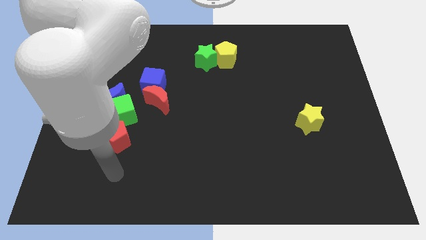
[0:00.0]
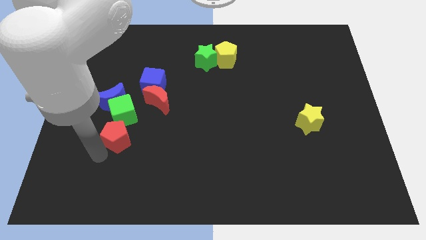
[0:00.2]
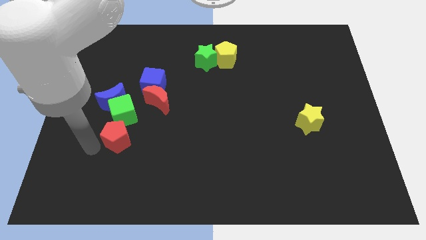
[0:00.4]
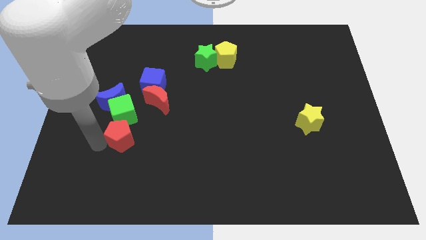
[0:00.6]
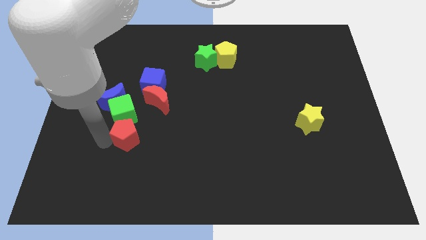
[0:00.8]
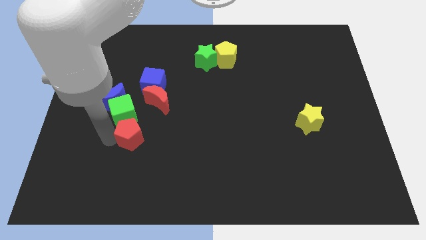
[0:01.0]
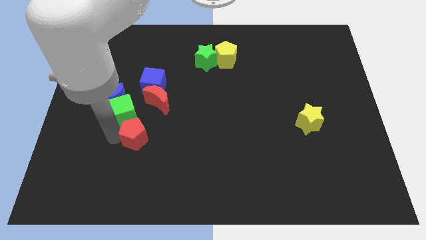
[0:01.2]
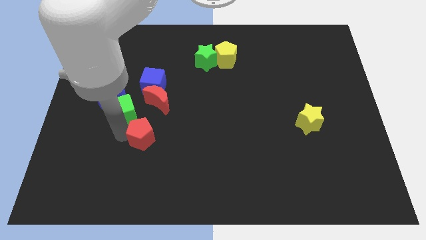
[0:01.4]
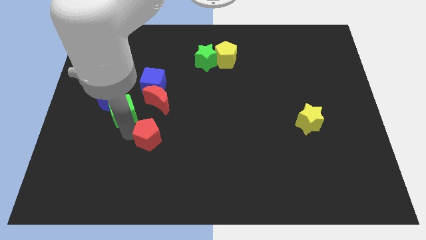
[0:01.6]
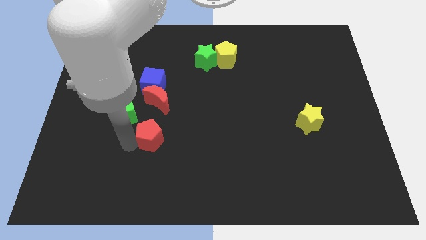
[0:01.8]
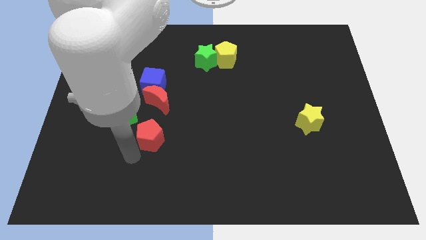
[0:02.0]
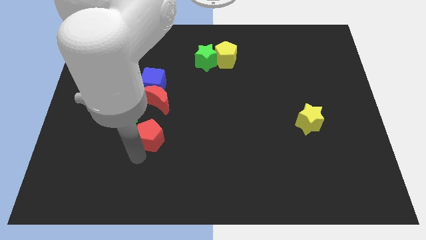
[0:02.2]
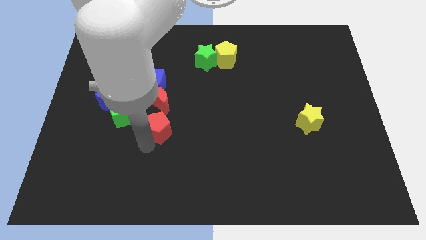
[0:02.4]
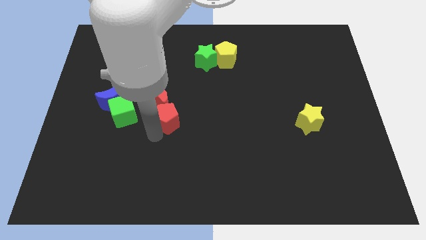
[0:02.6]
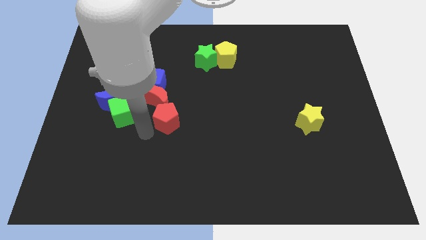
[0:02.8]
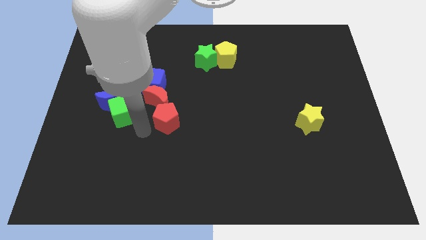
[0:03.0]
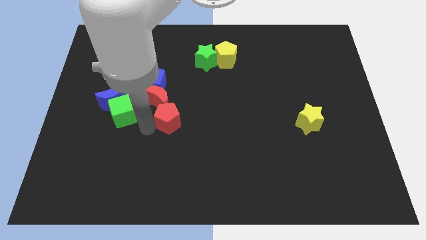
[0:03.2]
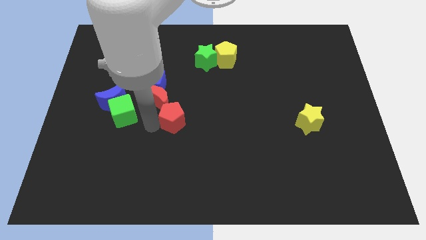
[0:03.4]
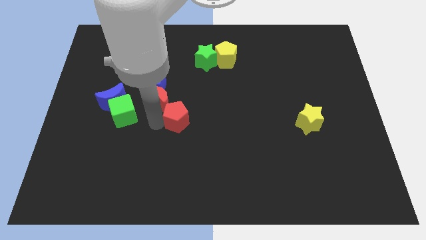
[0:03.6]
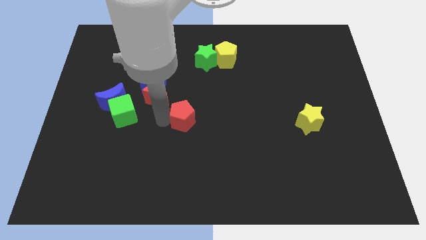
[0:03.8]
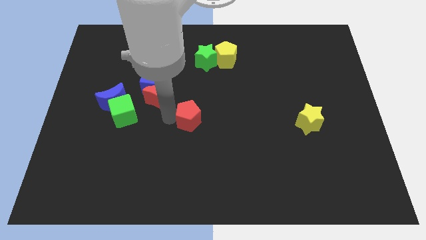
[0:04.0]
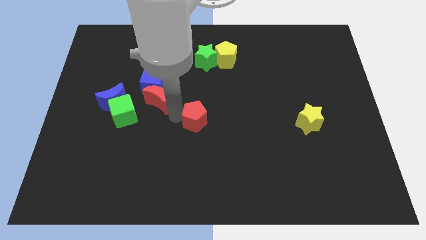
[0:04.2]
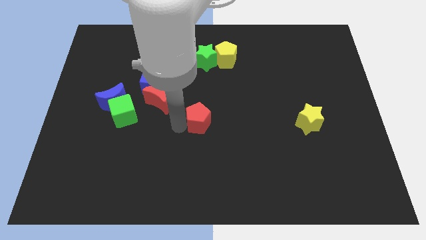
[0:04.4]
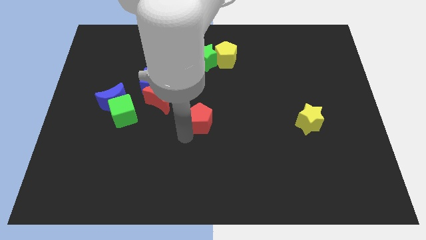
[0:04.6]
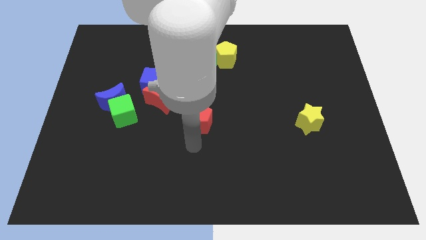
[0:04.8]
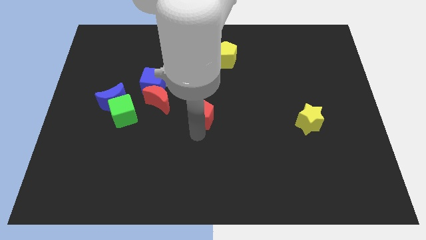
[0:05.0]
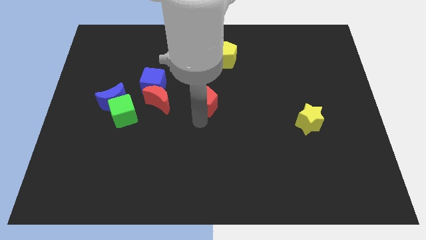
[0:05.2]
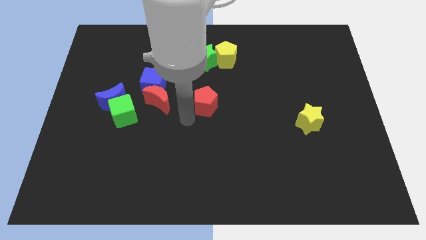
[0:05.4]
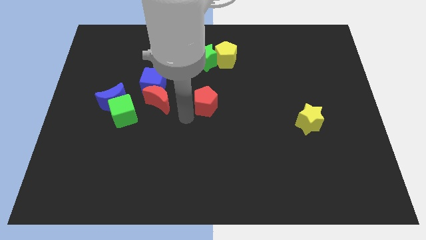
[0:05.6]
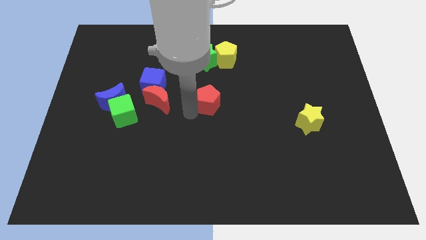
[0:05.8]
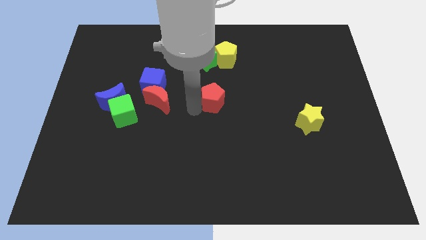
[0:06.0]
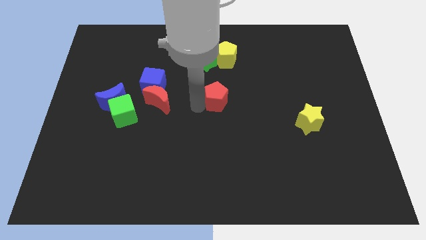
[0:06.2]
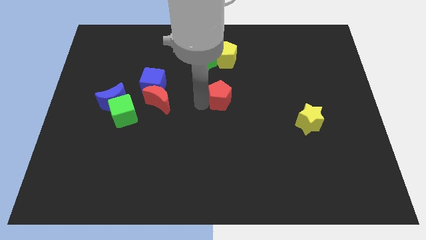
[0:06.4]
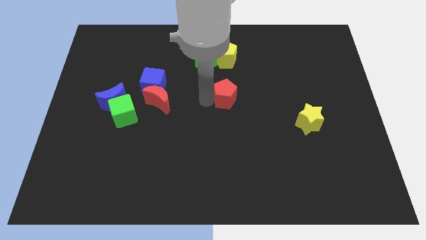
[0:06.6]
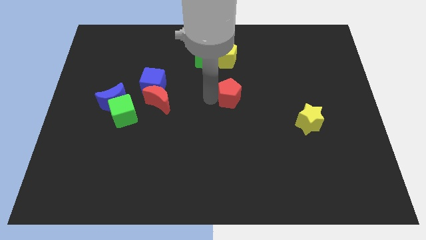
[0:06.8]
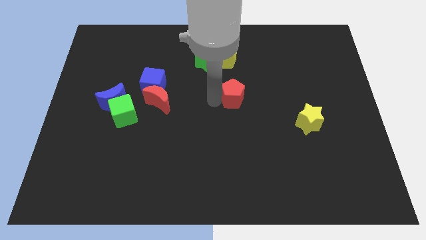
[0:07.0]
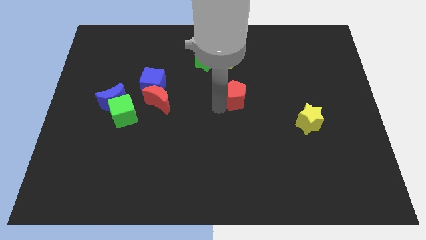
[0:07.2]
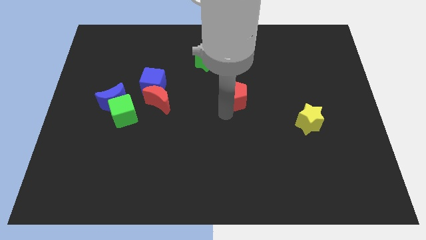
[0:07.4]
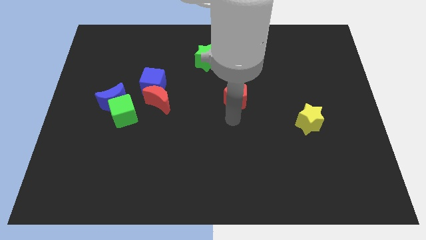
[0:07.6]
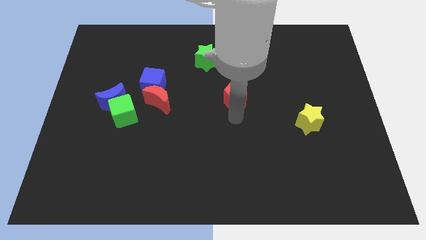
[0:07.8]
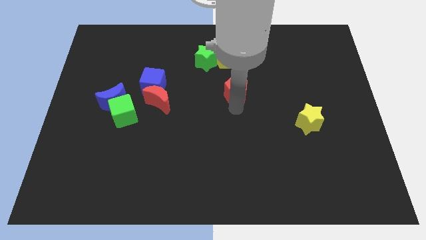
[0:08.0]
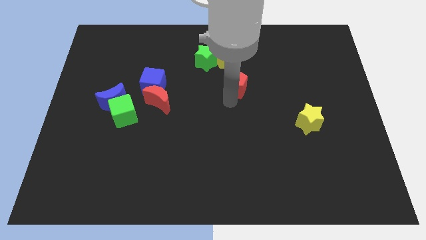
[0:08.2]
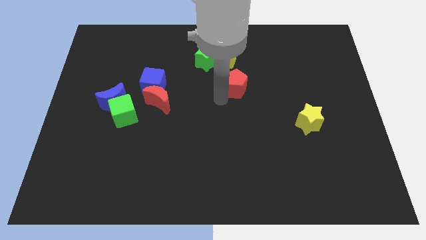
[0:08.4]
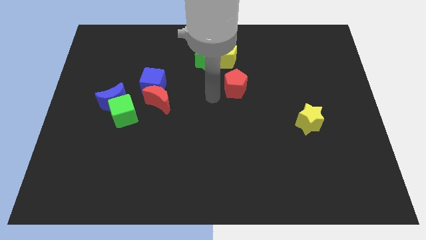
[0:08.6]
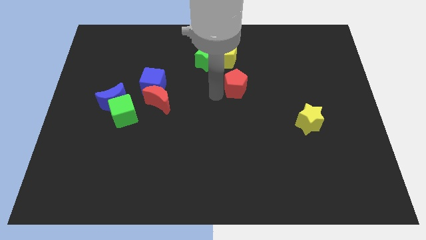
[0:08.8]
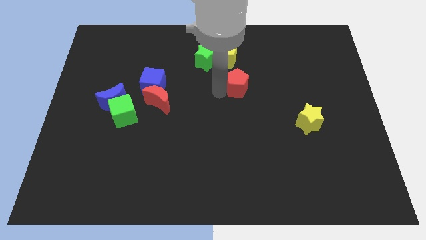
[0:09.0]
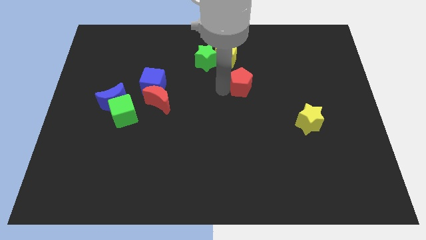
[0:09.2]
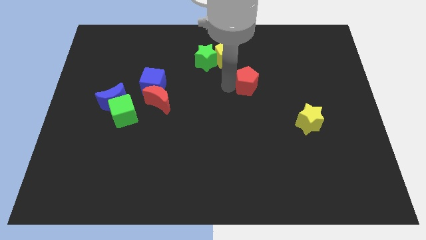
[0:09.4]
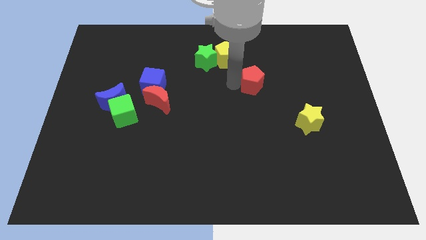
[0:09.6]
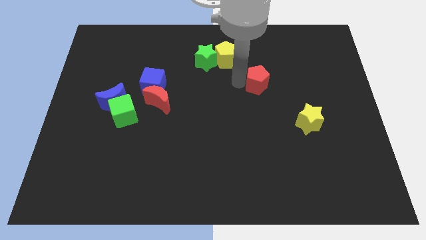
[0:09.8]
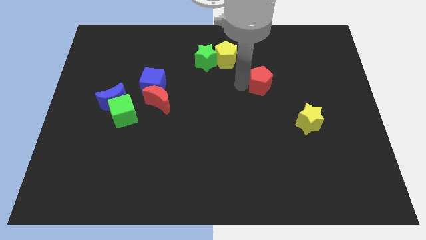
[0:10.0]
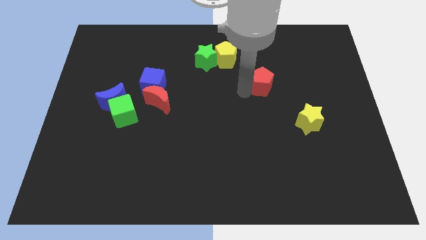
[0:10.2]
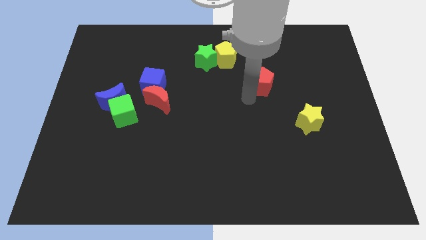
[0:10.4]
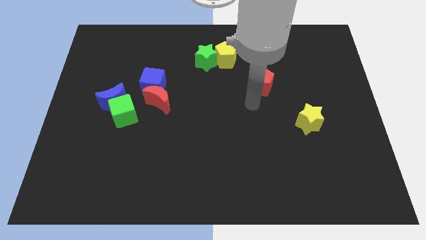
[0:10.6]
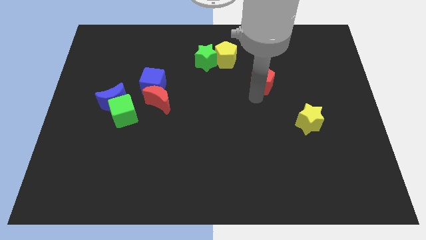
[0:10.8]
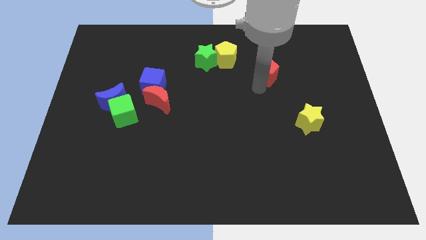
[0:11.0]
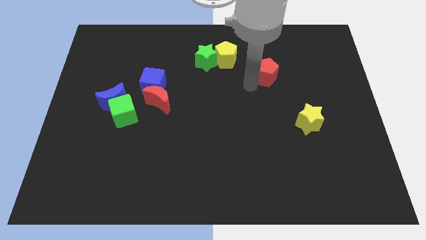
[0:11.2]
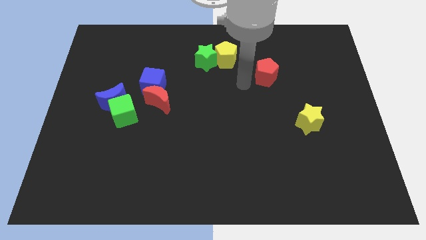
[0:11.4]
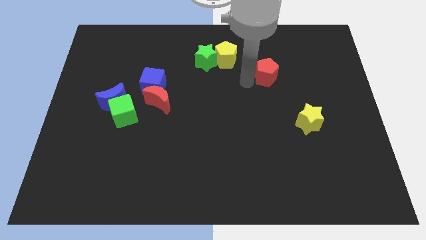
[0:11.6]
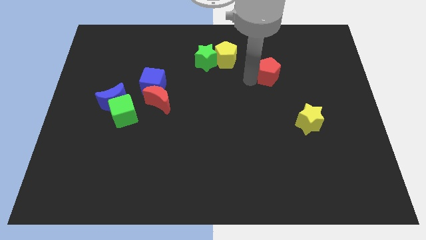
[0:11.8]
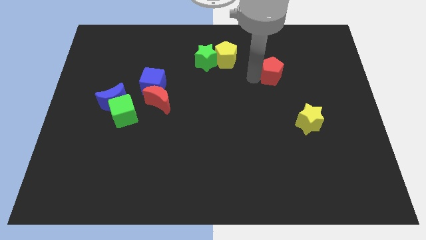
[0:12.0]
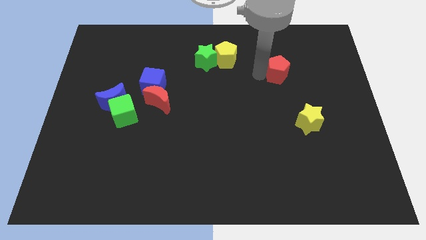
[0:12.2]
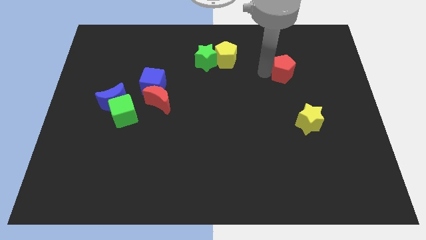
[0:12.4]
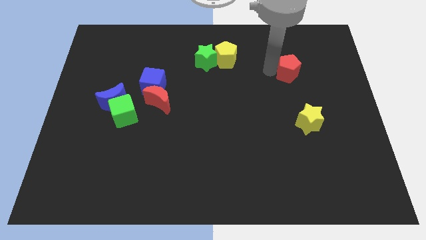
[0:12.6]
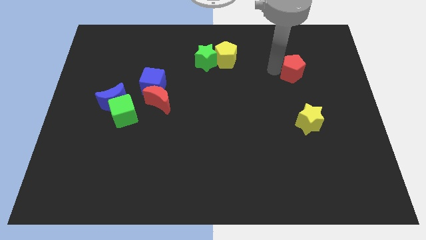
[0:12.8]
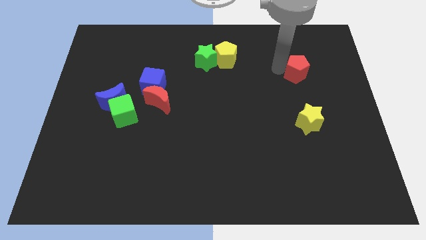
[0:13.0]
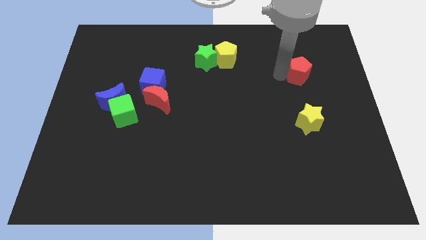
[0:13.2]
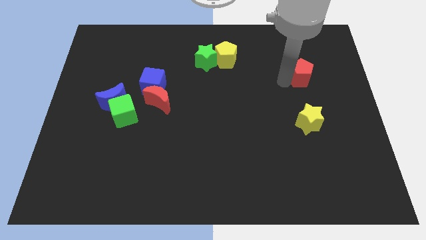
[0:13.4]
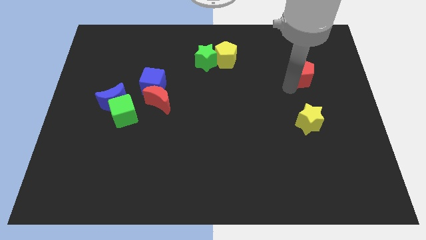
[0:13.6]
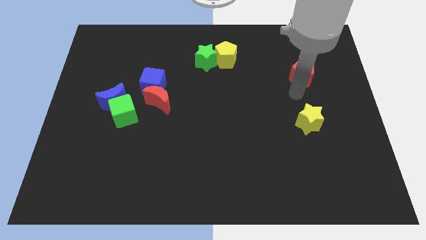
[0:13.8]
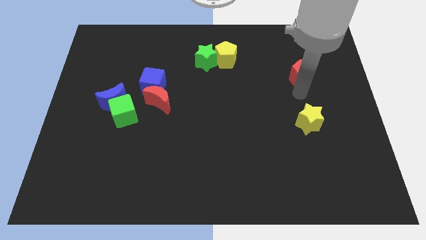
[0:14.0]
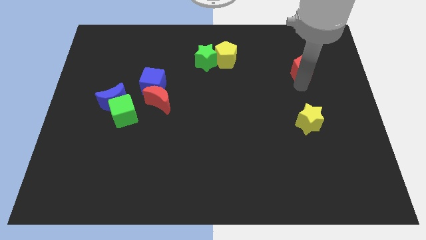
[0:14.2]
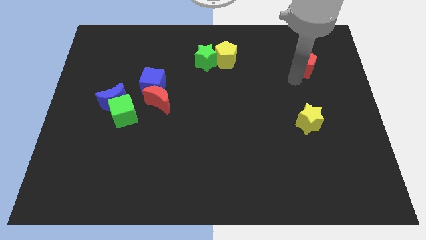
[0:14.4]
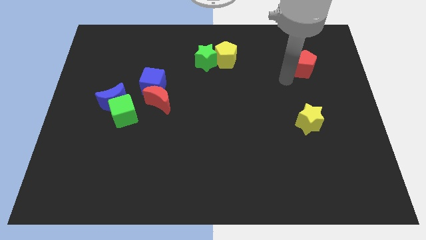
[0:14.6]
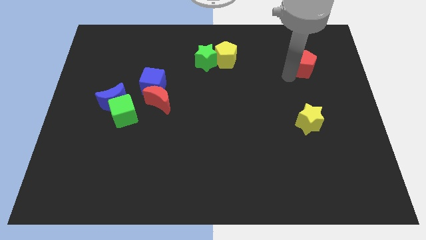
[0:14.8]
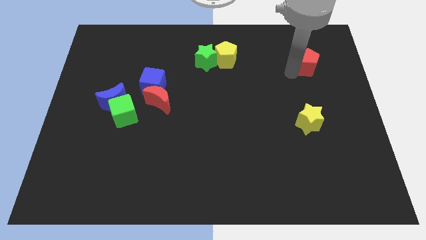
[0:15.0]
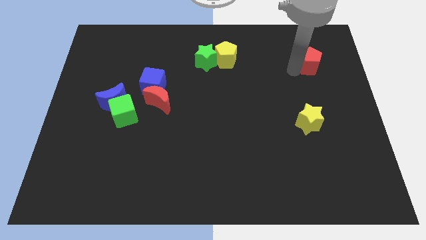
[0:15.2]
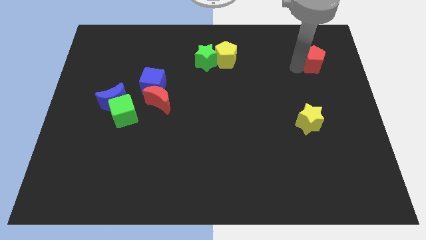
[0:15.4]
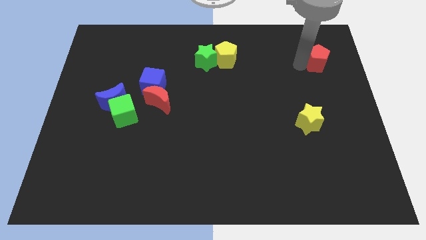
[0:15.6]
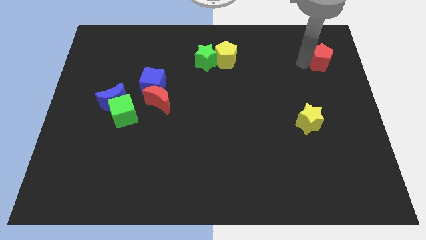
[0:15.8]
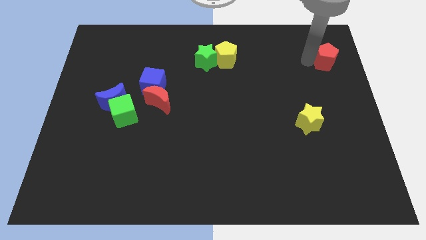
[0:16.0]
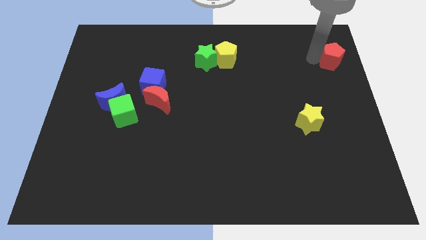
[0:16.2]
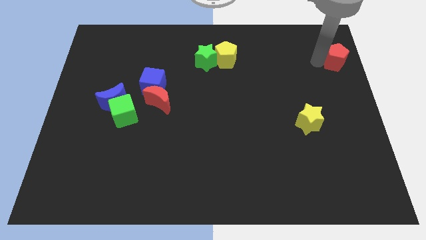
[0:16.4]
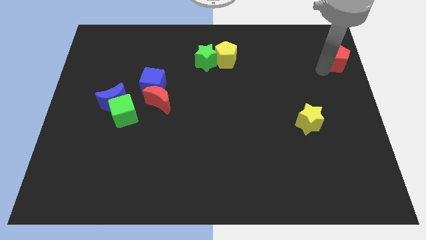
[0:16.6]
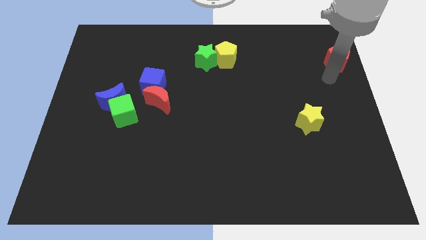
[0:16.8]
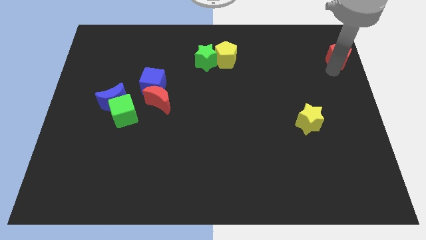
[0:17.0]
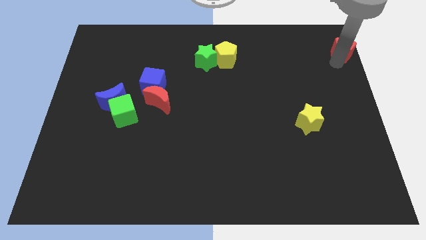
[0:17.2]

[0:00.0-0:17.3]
put the red pentagon to the top right of the board
